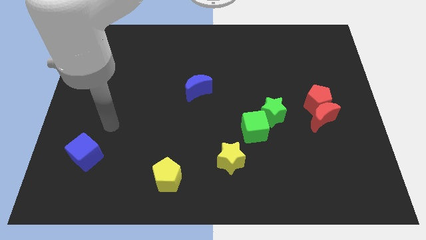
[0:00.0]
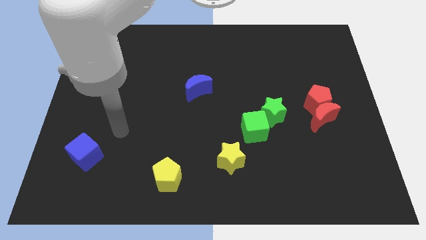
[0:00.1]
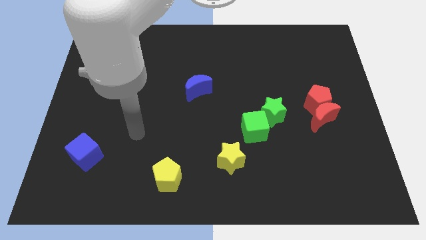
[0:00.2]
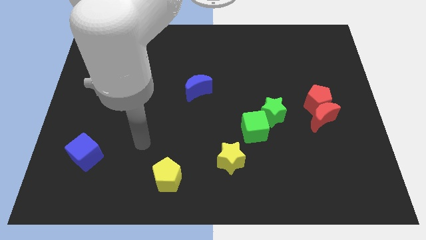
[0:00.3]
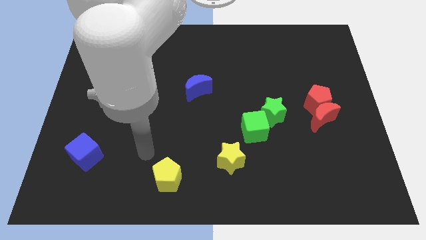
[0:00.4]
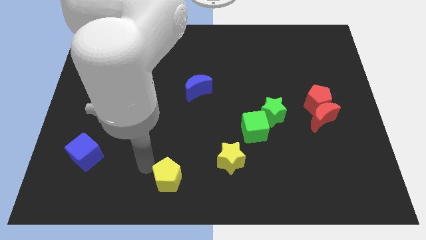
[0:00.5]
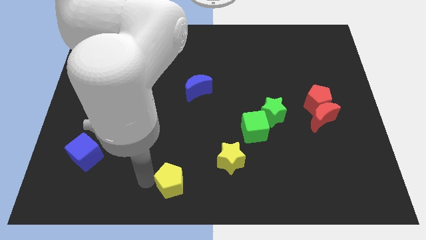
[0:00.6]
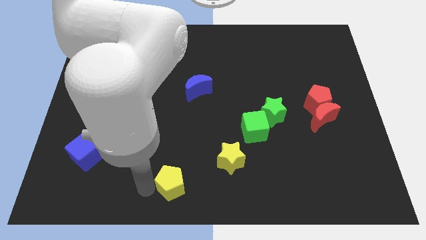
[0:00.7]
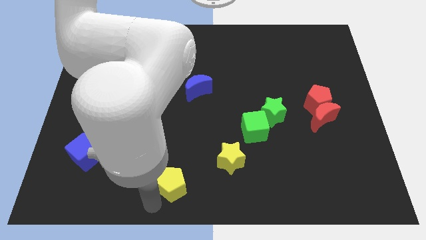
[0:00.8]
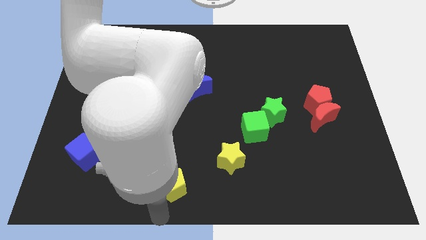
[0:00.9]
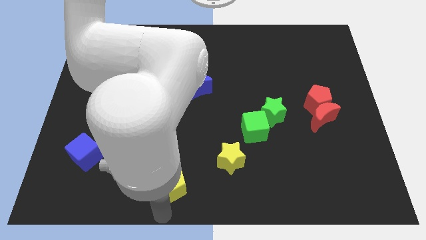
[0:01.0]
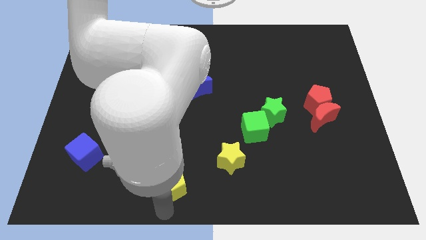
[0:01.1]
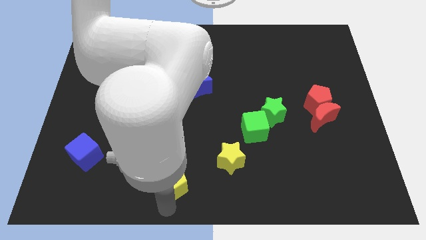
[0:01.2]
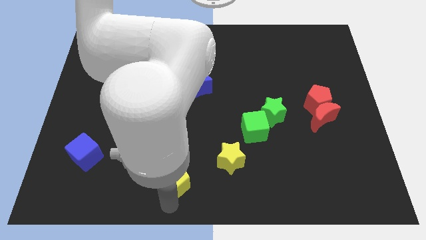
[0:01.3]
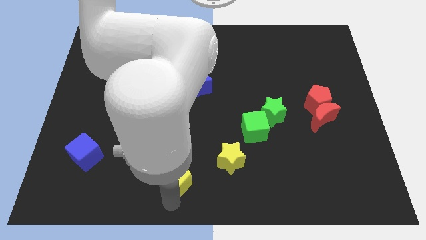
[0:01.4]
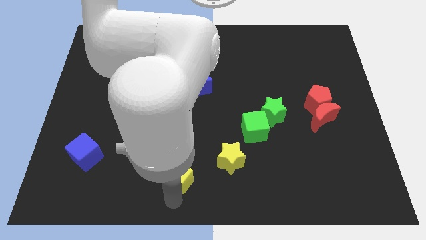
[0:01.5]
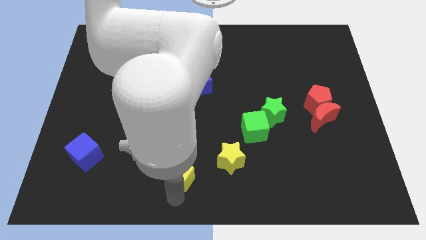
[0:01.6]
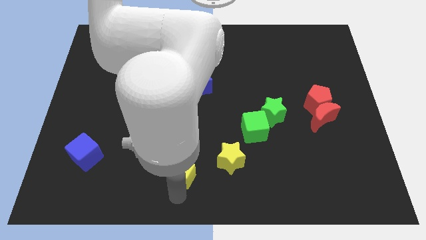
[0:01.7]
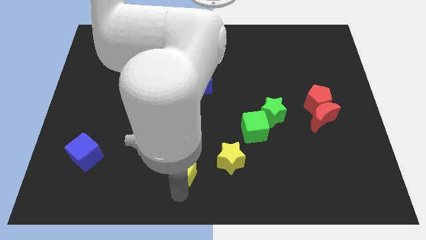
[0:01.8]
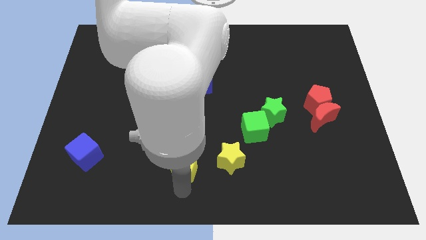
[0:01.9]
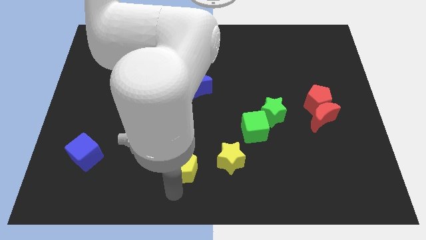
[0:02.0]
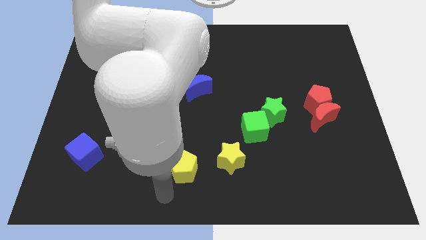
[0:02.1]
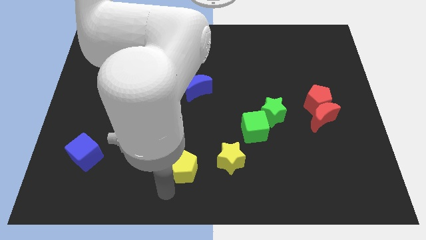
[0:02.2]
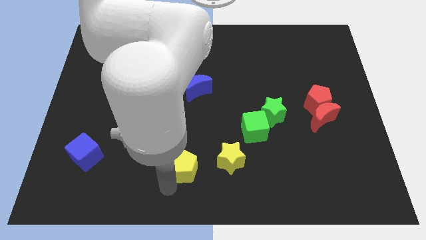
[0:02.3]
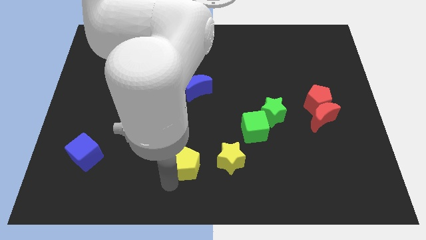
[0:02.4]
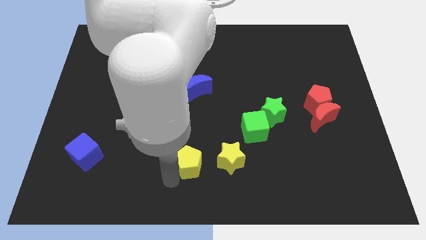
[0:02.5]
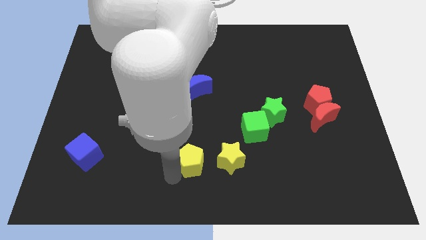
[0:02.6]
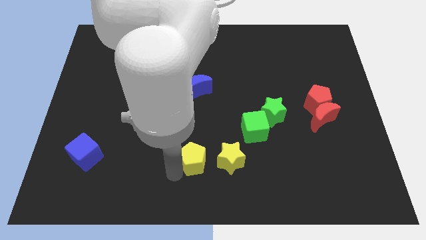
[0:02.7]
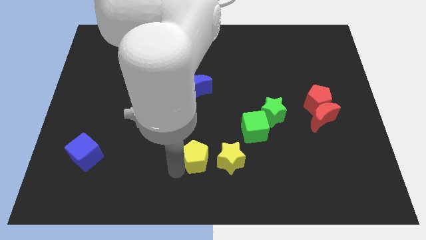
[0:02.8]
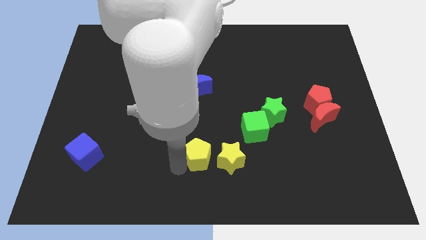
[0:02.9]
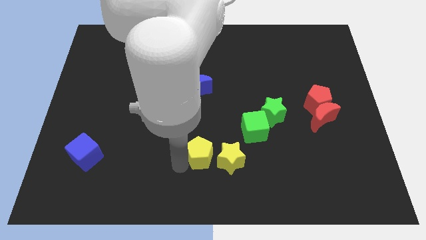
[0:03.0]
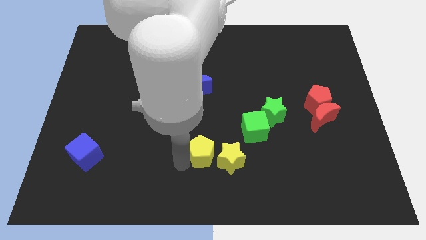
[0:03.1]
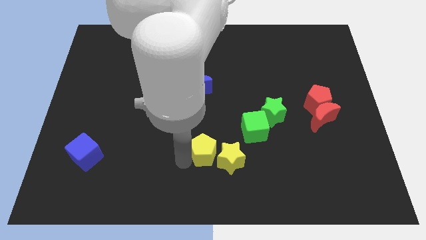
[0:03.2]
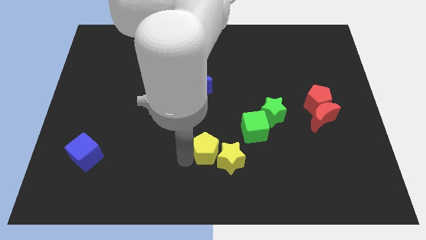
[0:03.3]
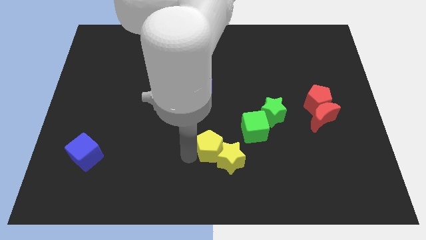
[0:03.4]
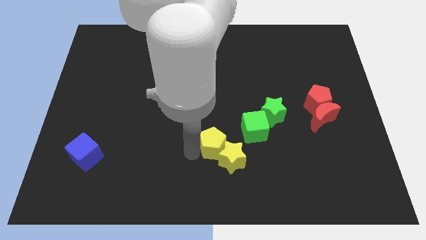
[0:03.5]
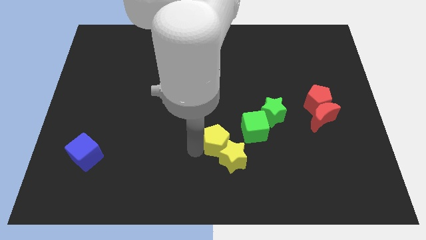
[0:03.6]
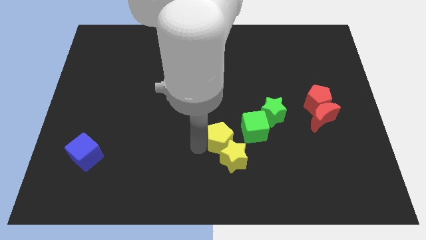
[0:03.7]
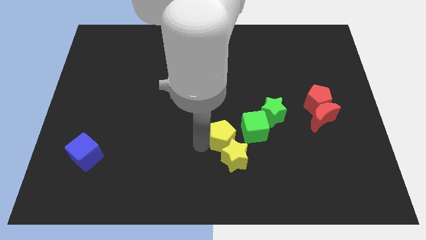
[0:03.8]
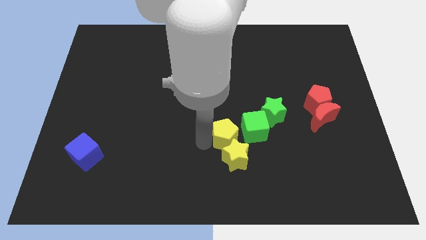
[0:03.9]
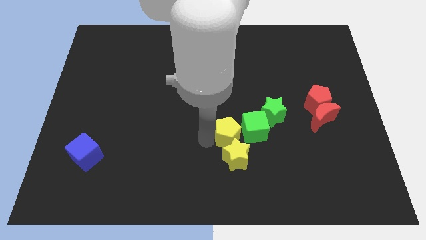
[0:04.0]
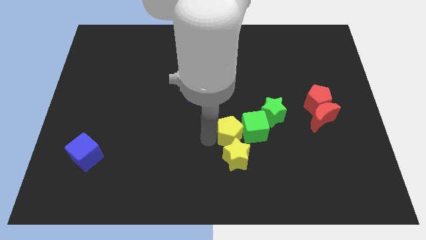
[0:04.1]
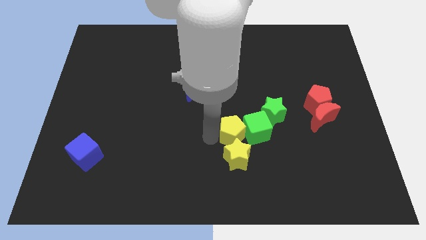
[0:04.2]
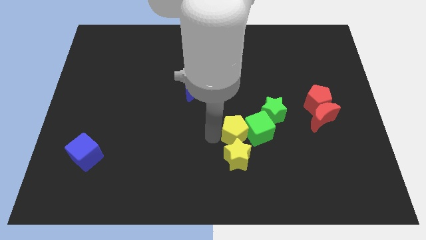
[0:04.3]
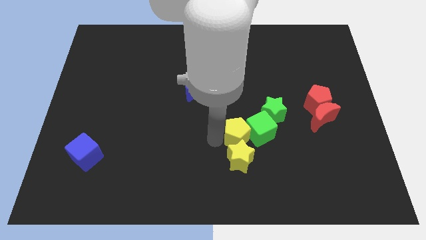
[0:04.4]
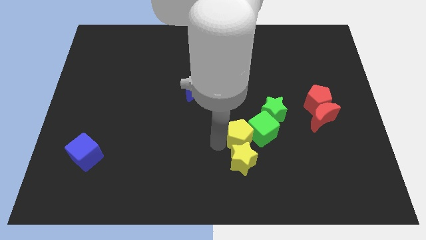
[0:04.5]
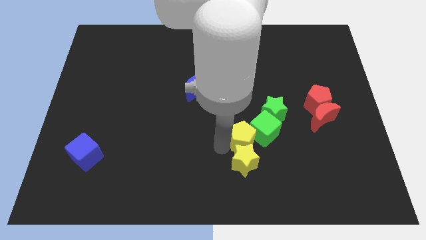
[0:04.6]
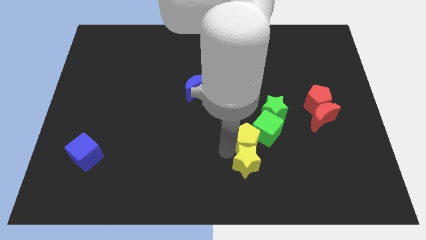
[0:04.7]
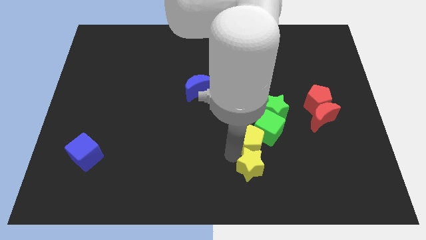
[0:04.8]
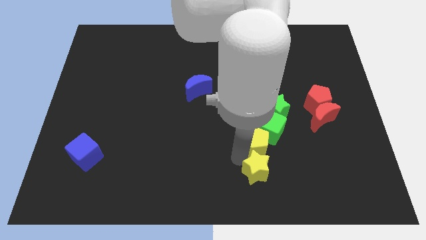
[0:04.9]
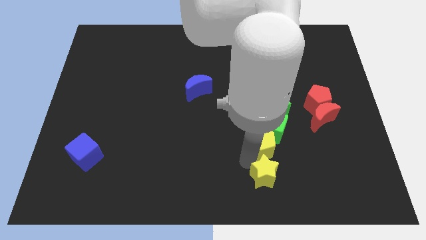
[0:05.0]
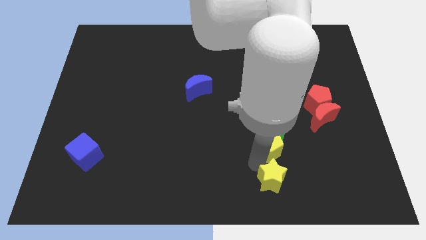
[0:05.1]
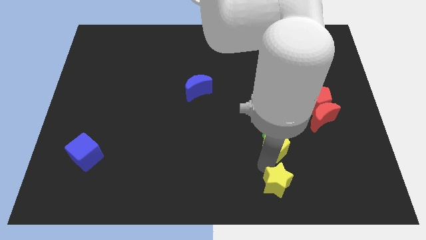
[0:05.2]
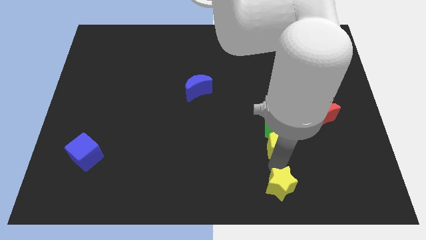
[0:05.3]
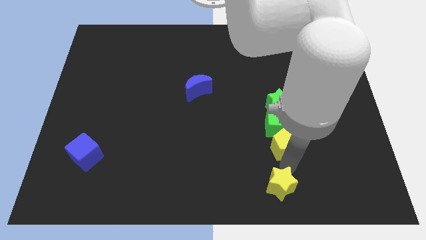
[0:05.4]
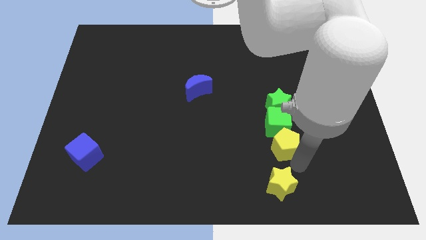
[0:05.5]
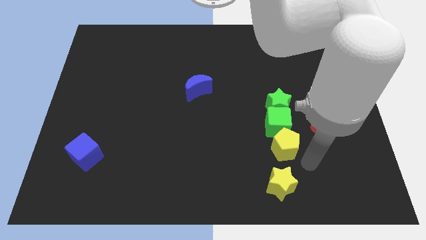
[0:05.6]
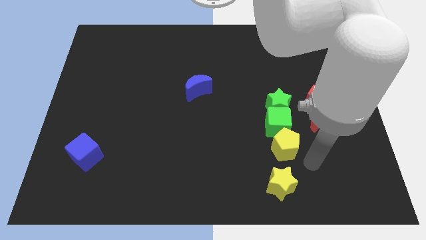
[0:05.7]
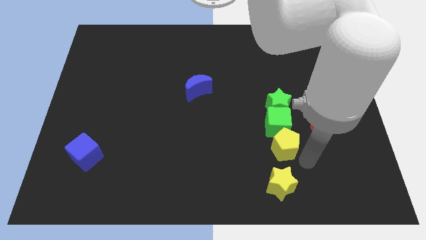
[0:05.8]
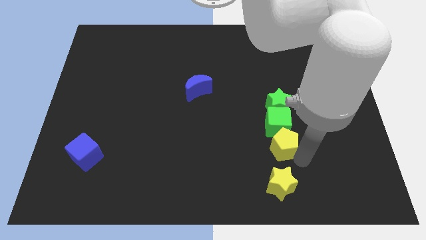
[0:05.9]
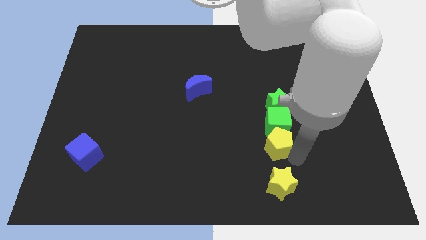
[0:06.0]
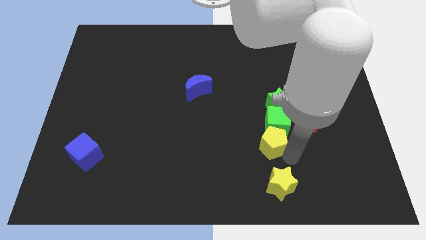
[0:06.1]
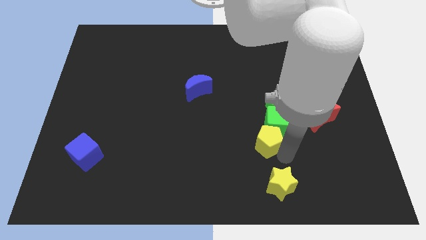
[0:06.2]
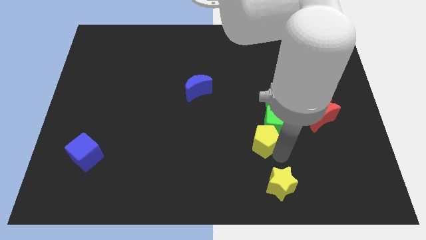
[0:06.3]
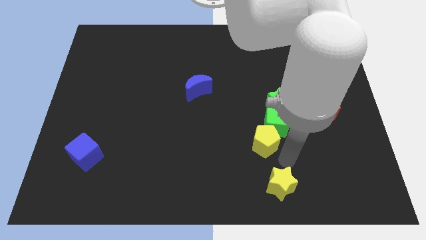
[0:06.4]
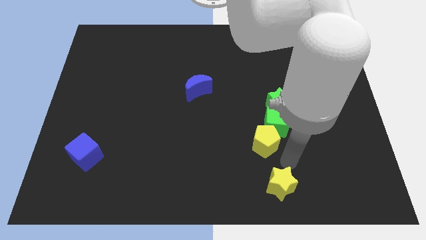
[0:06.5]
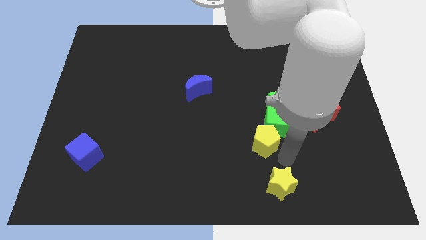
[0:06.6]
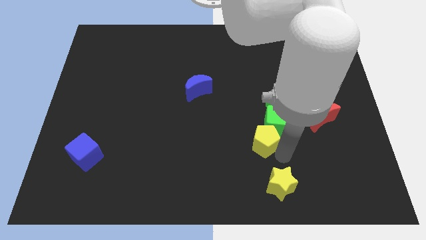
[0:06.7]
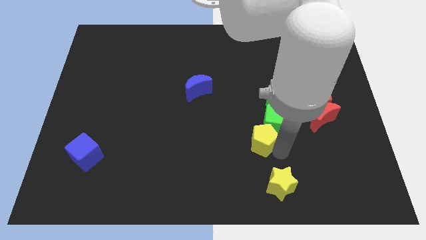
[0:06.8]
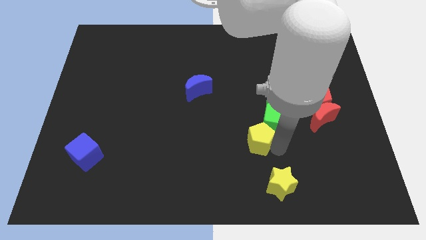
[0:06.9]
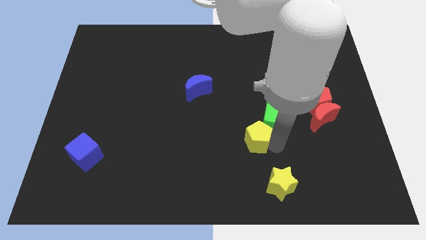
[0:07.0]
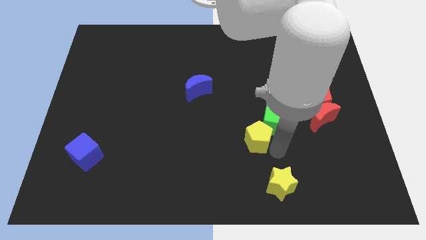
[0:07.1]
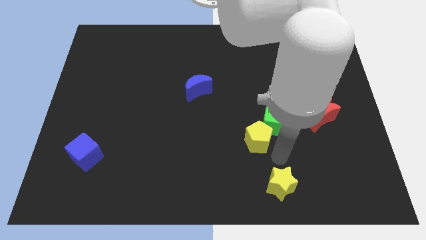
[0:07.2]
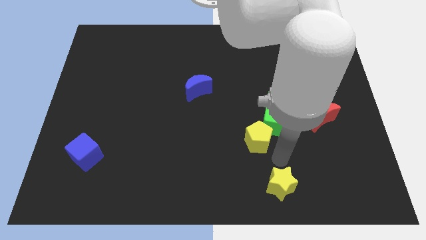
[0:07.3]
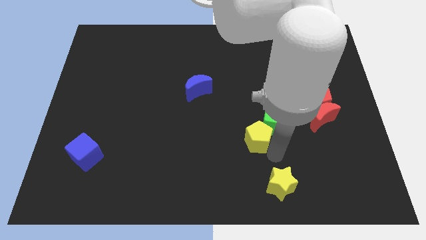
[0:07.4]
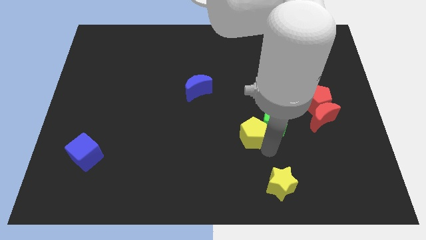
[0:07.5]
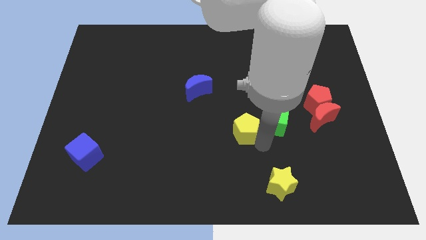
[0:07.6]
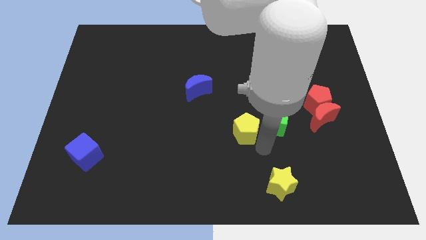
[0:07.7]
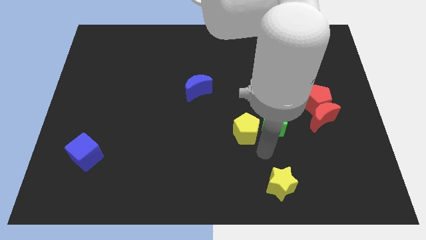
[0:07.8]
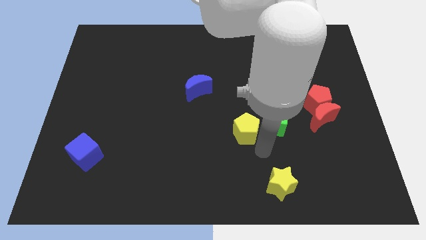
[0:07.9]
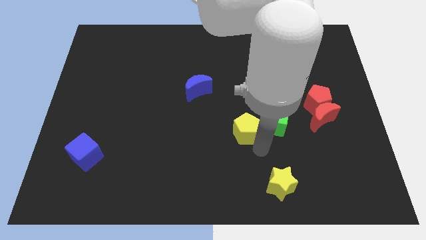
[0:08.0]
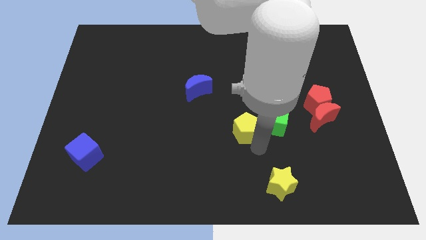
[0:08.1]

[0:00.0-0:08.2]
move the yellow pentagon up and to the right diagonally

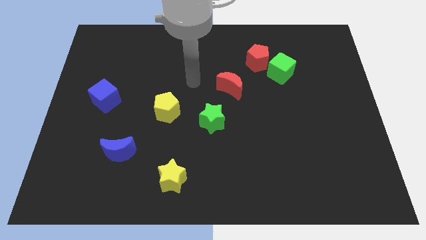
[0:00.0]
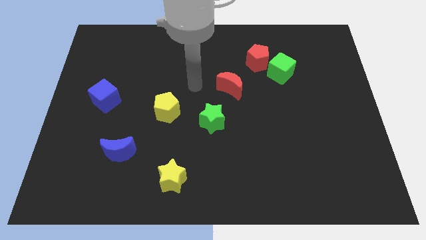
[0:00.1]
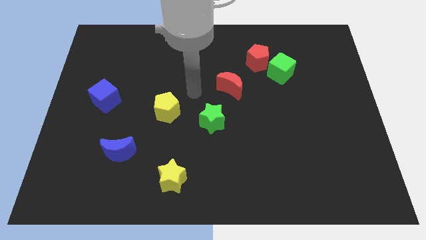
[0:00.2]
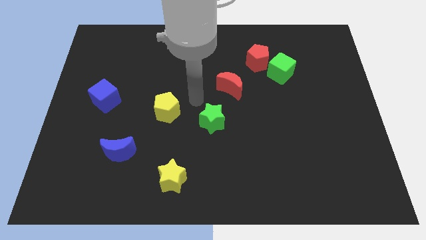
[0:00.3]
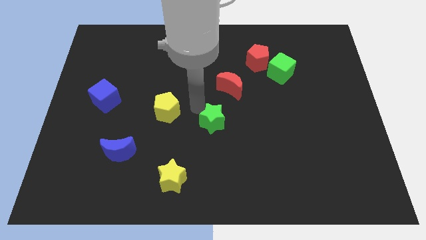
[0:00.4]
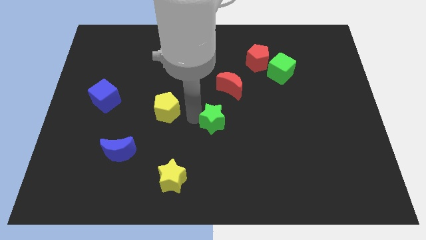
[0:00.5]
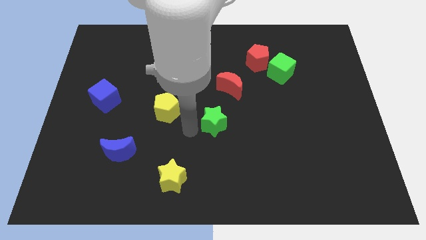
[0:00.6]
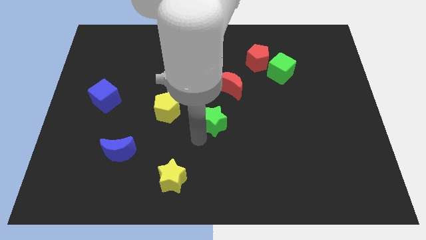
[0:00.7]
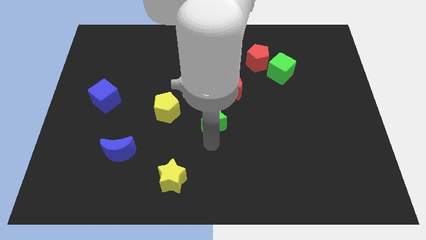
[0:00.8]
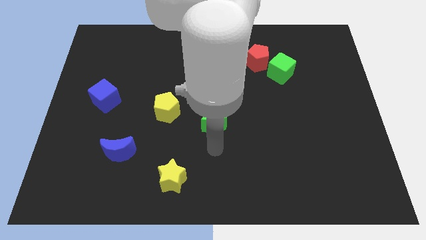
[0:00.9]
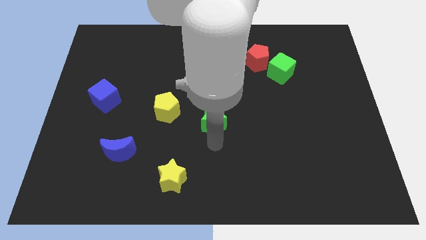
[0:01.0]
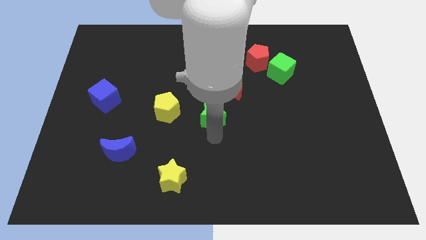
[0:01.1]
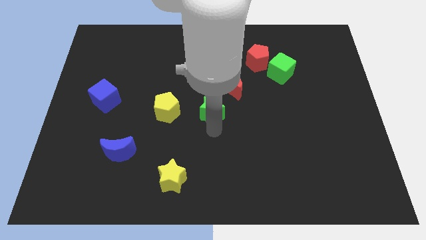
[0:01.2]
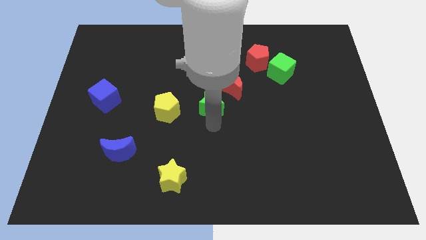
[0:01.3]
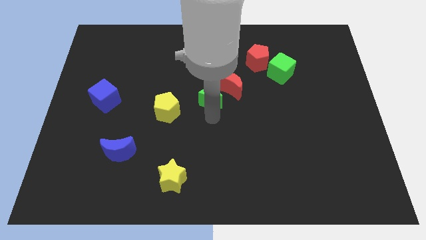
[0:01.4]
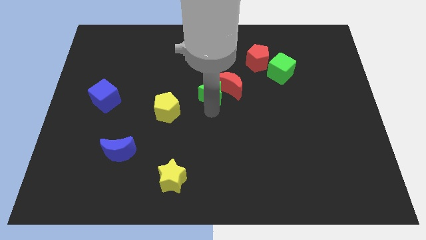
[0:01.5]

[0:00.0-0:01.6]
move the green star a little upwards
